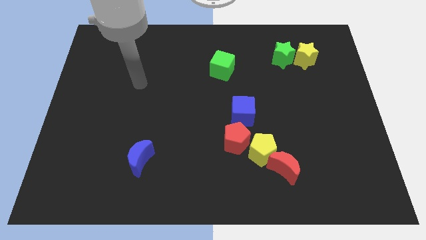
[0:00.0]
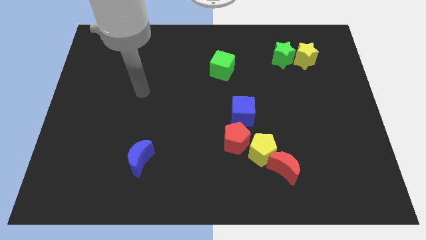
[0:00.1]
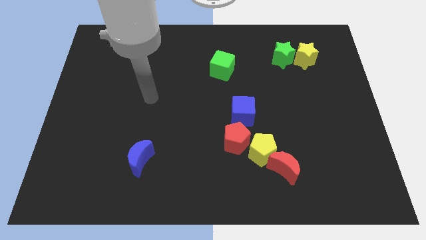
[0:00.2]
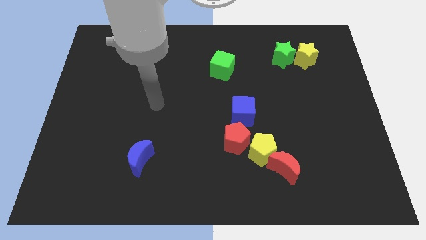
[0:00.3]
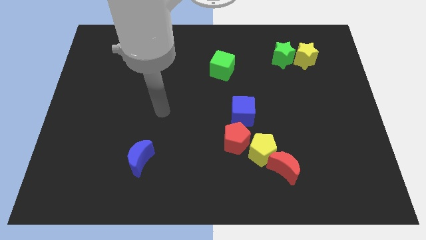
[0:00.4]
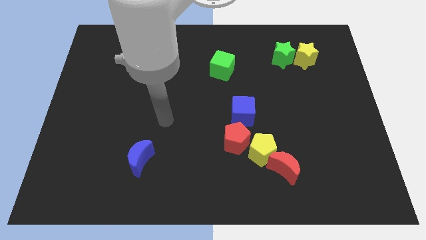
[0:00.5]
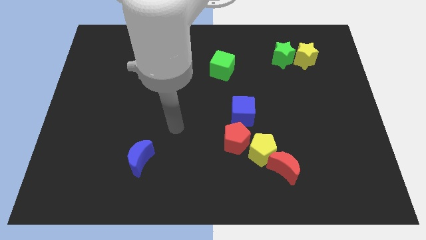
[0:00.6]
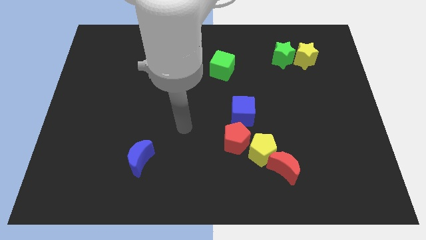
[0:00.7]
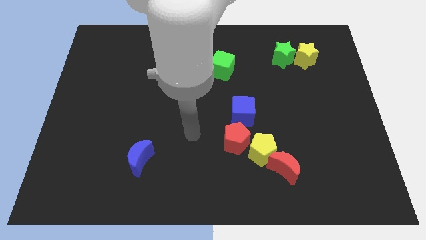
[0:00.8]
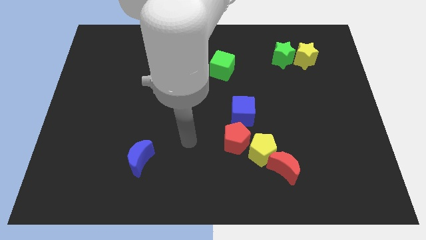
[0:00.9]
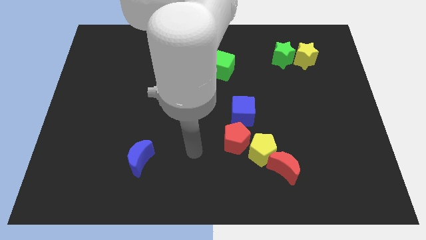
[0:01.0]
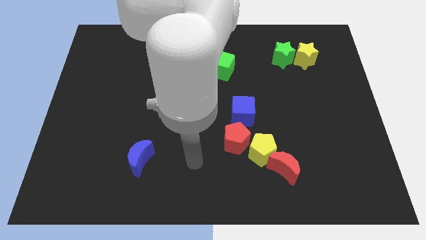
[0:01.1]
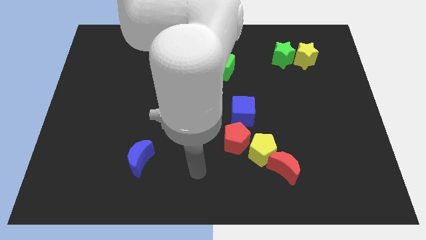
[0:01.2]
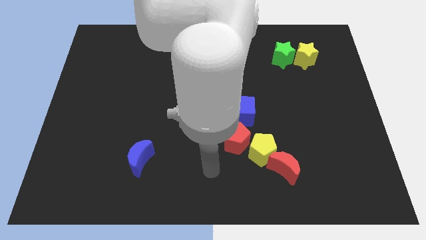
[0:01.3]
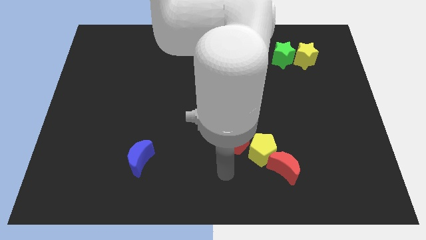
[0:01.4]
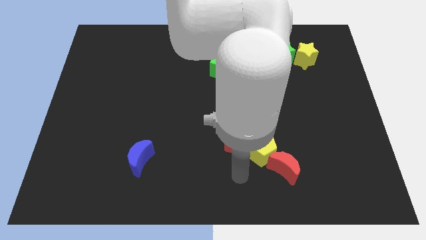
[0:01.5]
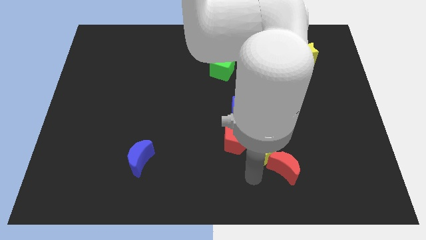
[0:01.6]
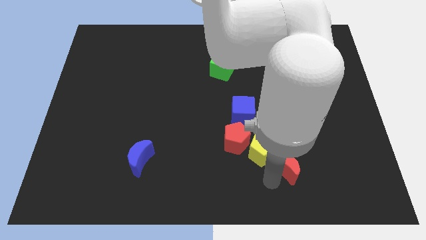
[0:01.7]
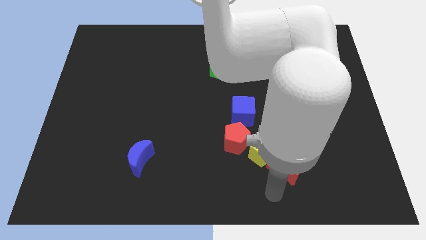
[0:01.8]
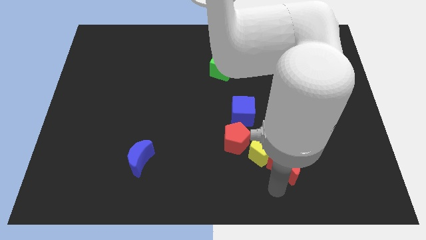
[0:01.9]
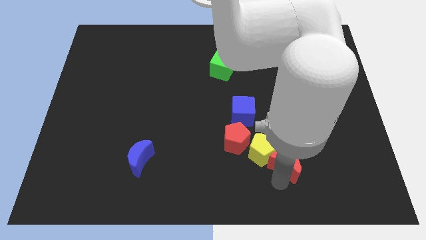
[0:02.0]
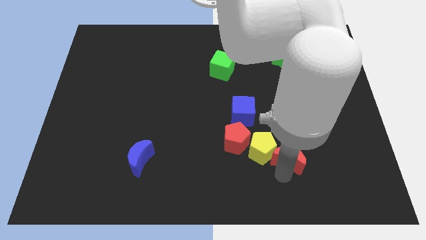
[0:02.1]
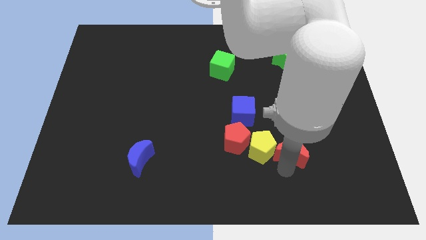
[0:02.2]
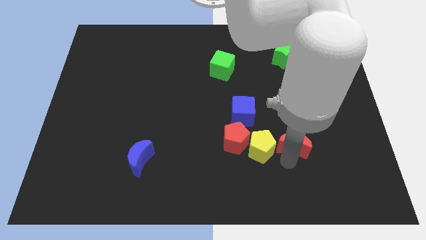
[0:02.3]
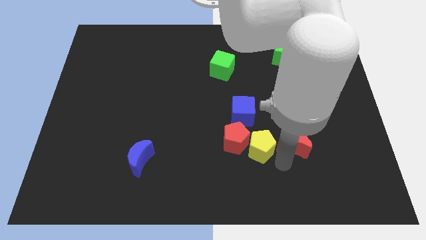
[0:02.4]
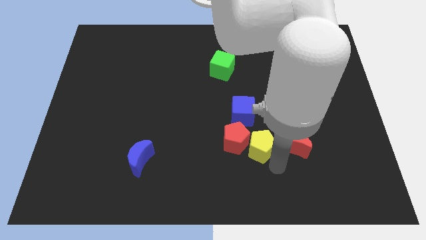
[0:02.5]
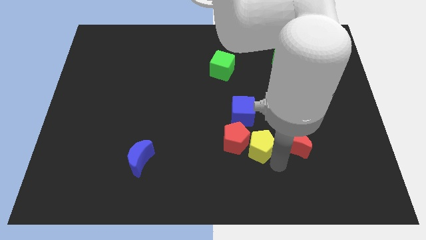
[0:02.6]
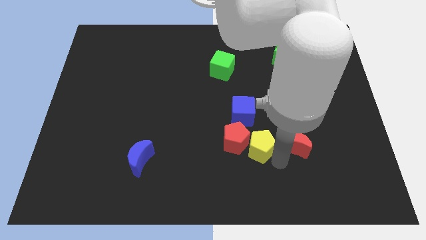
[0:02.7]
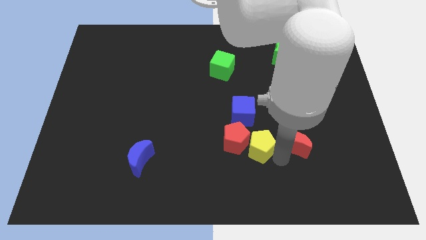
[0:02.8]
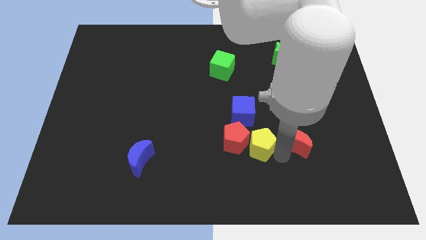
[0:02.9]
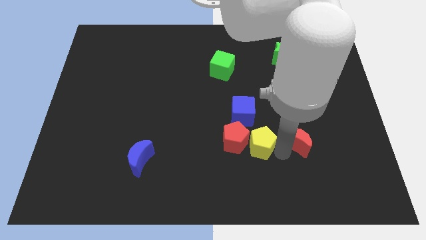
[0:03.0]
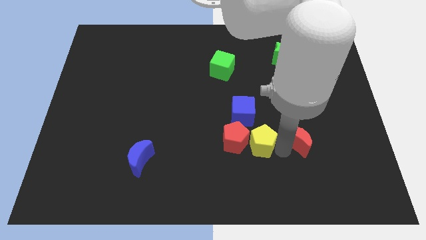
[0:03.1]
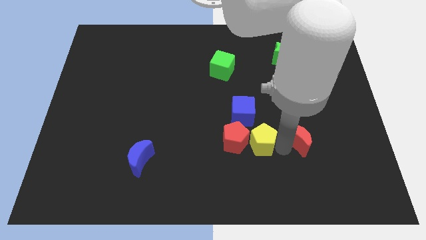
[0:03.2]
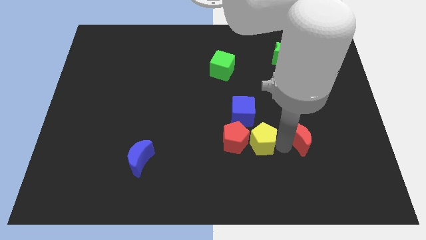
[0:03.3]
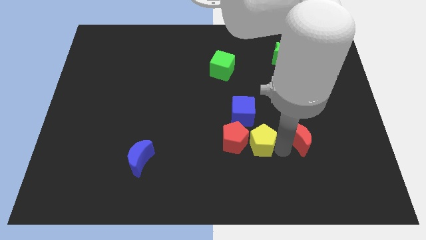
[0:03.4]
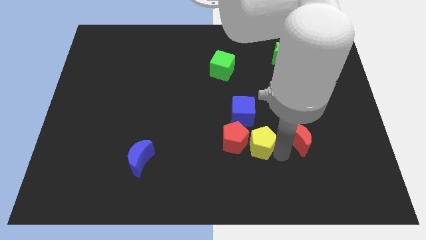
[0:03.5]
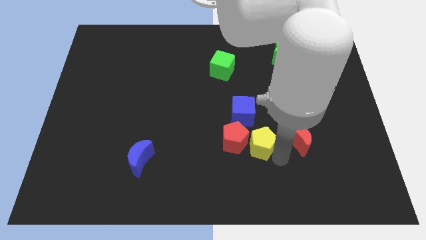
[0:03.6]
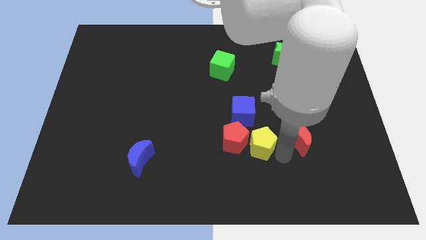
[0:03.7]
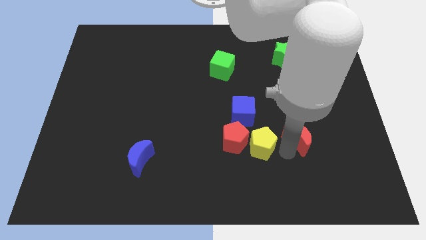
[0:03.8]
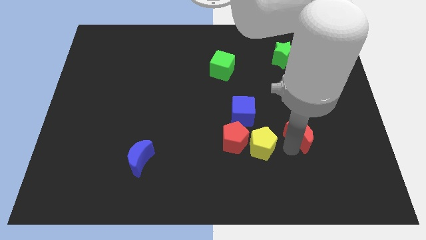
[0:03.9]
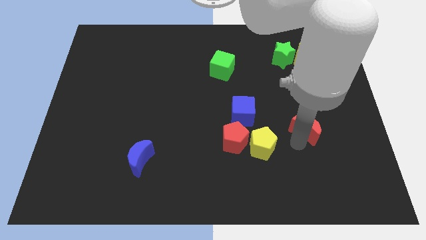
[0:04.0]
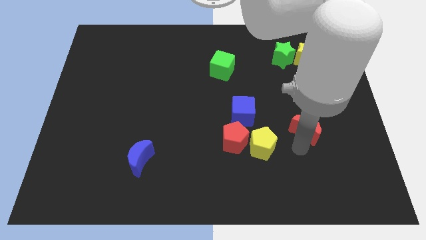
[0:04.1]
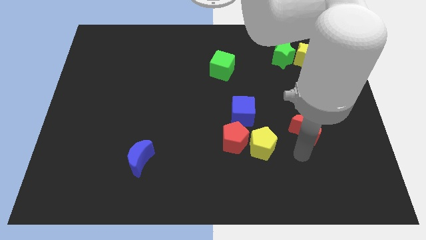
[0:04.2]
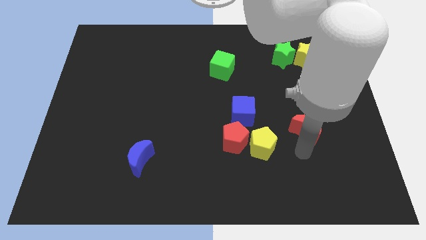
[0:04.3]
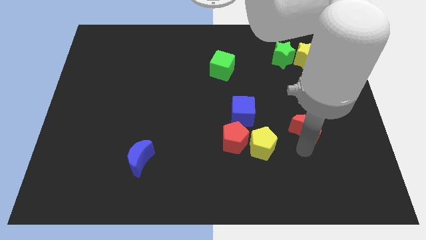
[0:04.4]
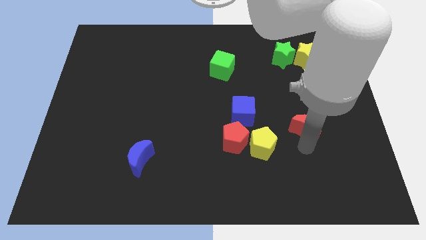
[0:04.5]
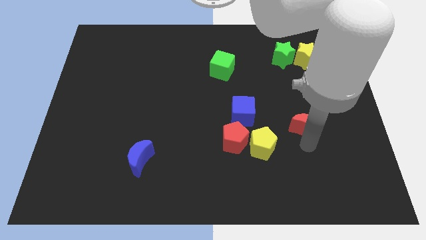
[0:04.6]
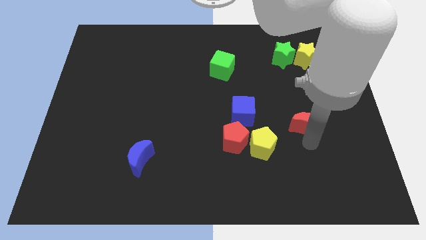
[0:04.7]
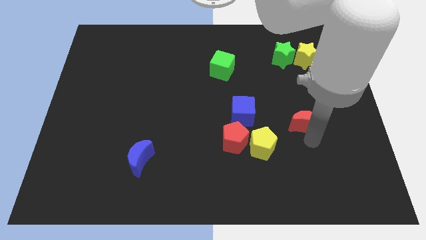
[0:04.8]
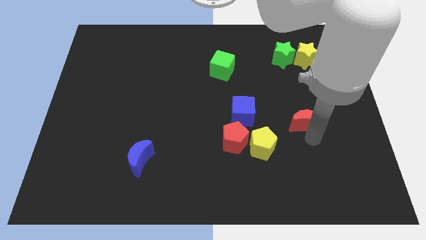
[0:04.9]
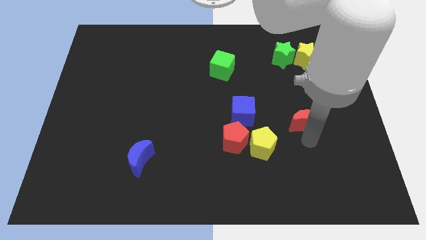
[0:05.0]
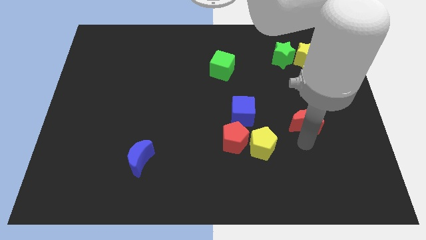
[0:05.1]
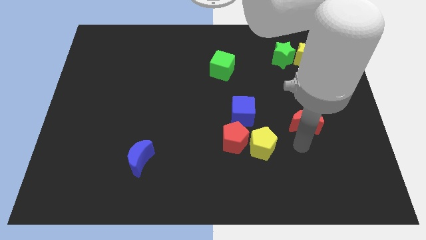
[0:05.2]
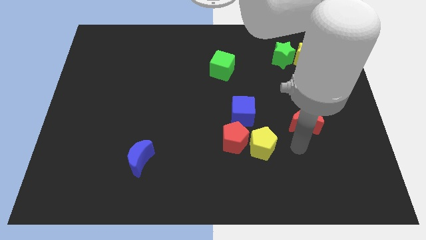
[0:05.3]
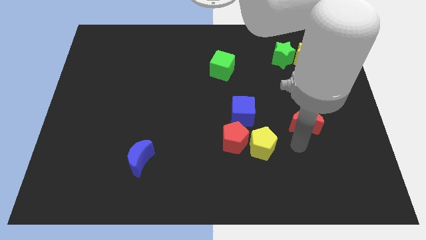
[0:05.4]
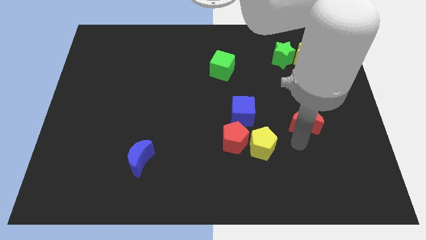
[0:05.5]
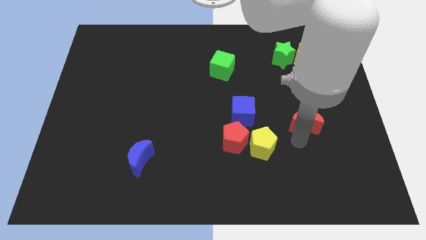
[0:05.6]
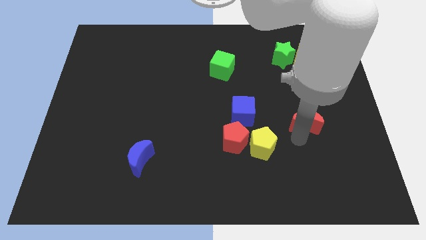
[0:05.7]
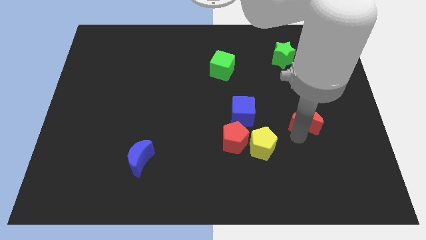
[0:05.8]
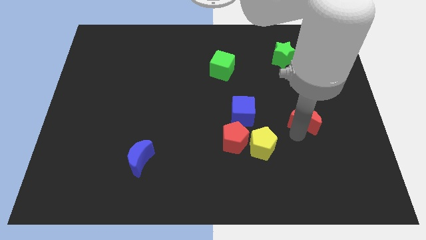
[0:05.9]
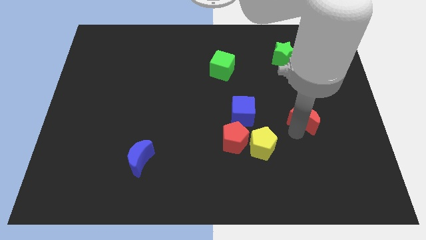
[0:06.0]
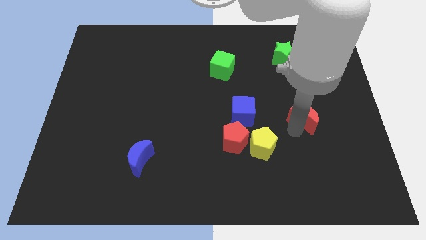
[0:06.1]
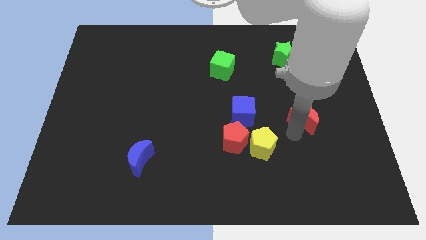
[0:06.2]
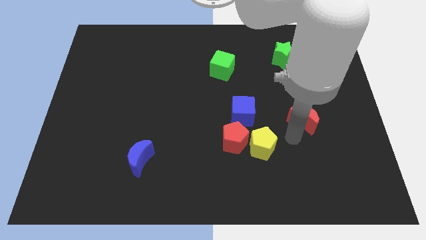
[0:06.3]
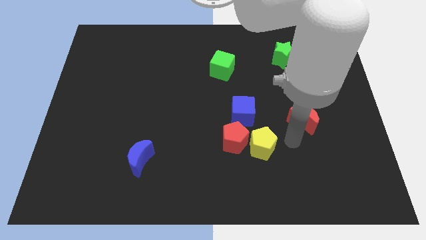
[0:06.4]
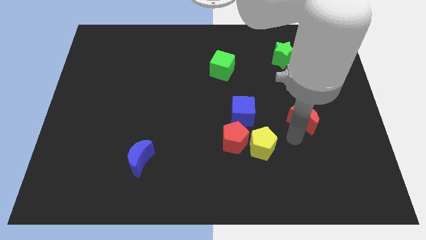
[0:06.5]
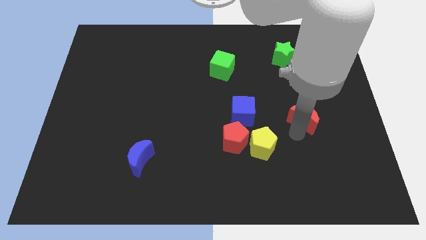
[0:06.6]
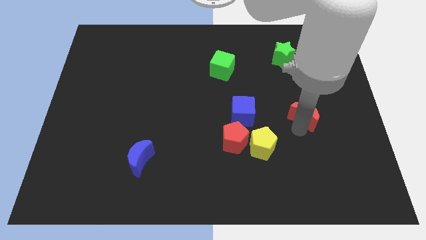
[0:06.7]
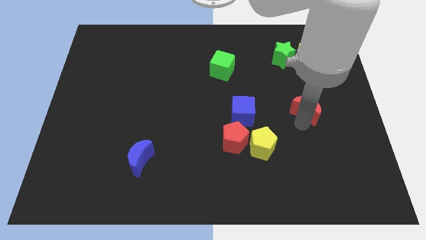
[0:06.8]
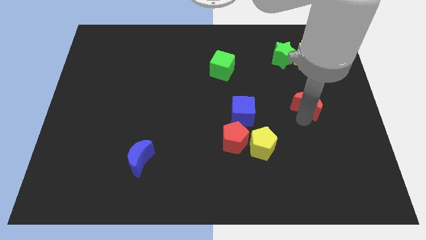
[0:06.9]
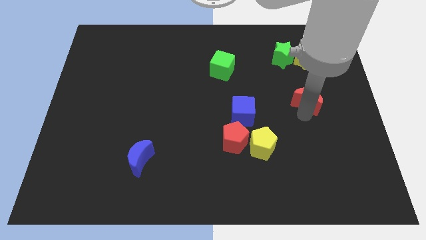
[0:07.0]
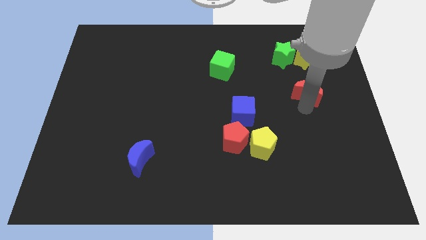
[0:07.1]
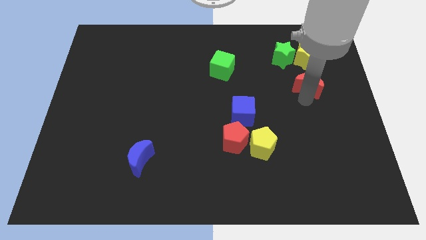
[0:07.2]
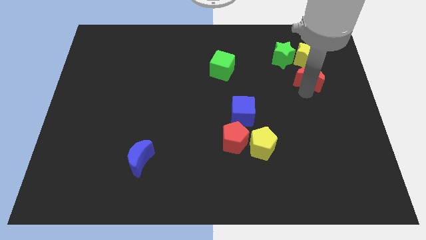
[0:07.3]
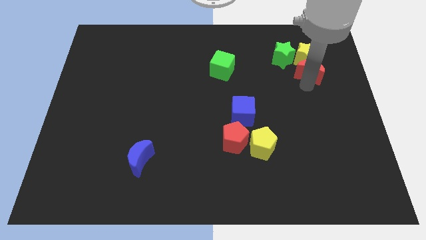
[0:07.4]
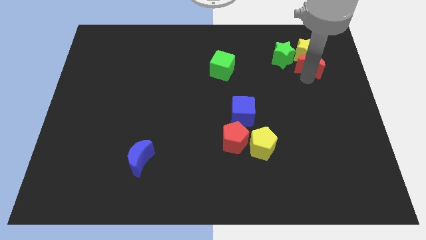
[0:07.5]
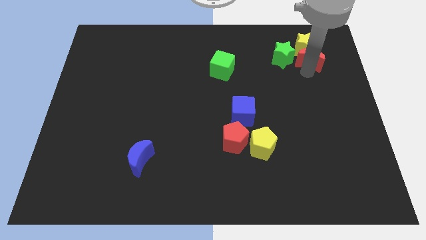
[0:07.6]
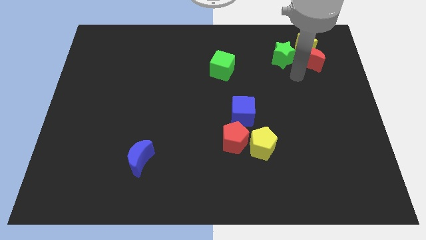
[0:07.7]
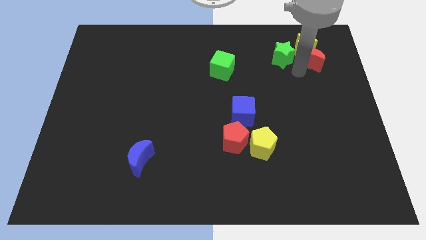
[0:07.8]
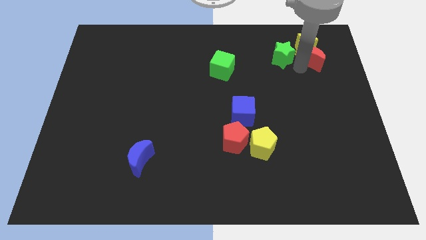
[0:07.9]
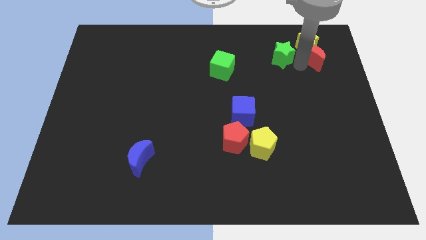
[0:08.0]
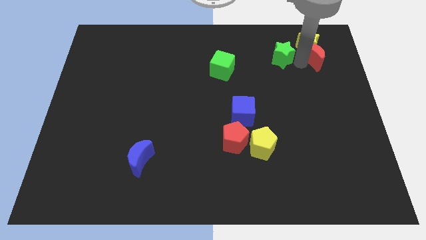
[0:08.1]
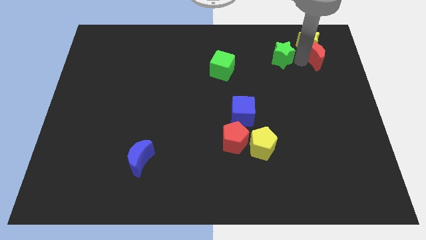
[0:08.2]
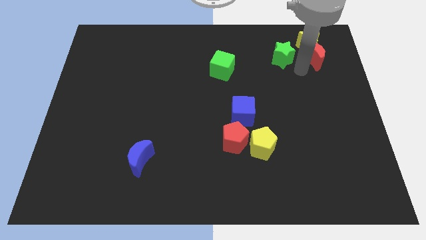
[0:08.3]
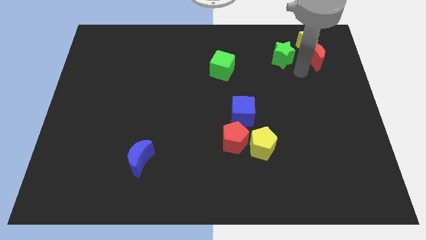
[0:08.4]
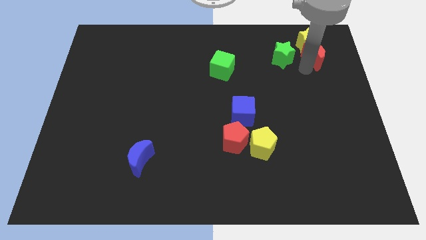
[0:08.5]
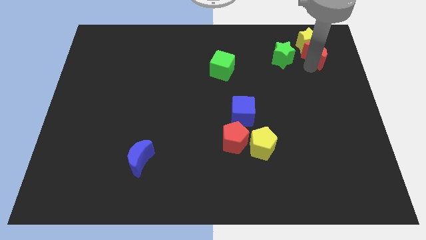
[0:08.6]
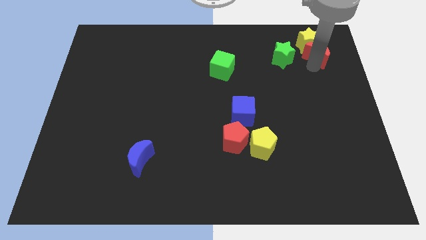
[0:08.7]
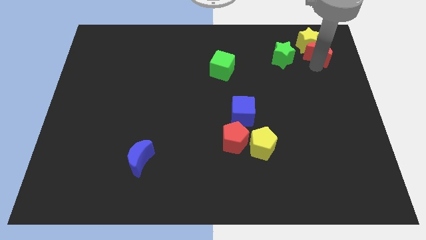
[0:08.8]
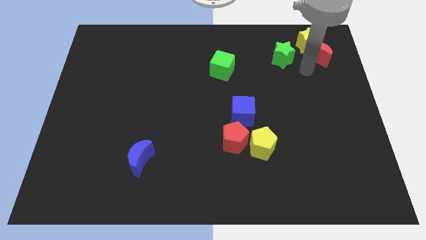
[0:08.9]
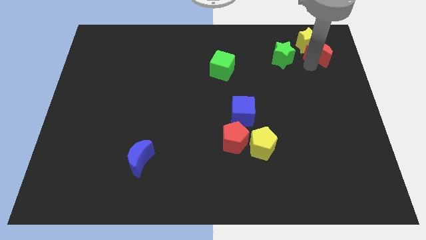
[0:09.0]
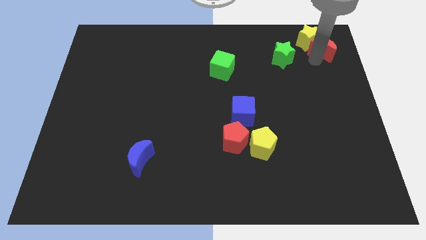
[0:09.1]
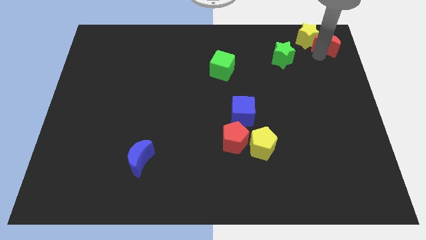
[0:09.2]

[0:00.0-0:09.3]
slide the red moon to the upper right corner
